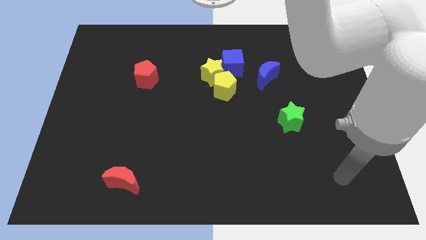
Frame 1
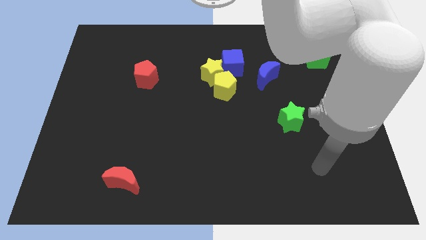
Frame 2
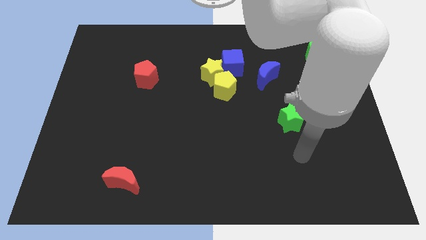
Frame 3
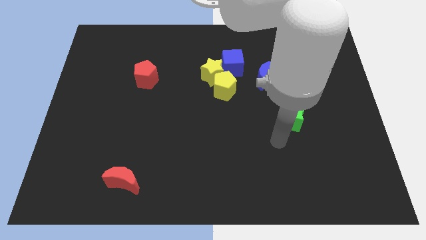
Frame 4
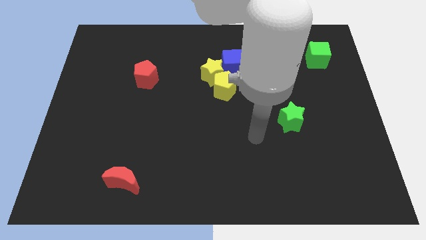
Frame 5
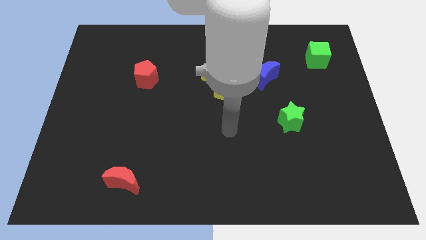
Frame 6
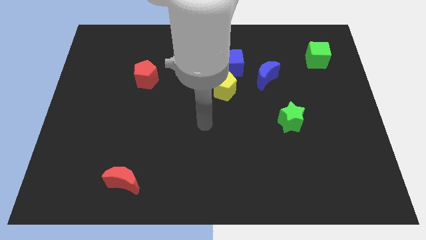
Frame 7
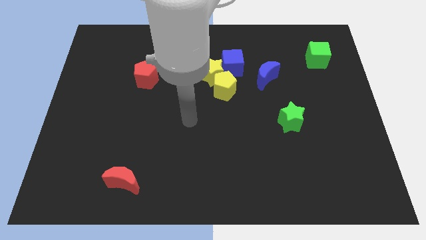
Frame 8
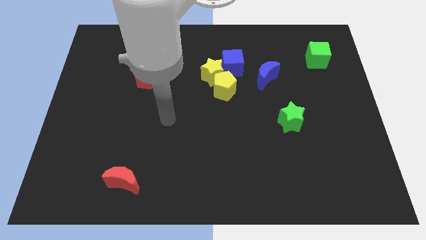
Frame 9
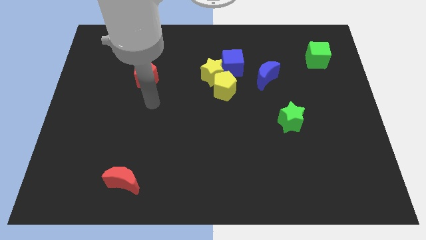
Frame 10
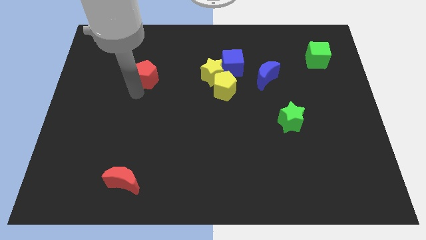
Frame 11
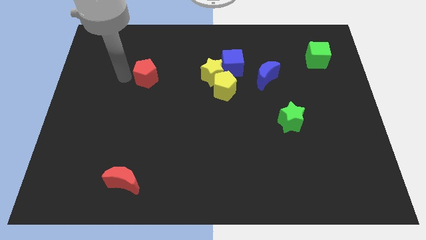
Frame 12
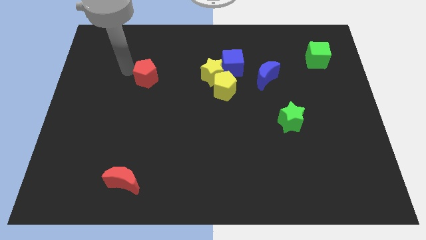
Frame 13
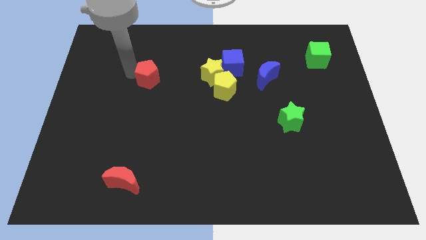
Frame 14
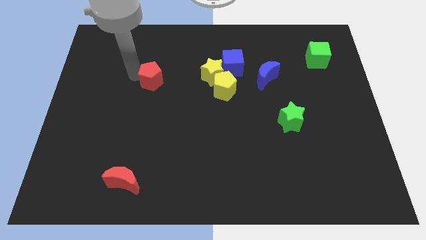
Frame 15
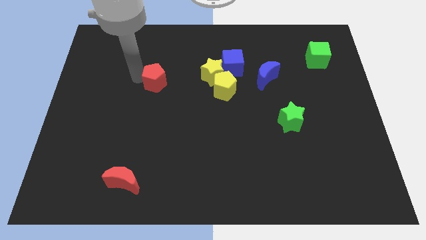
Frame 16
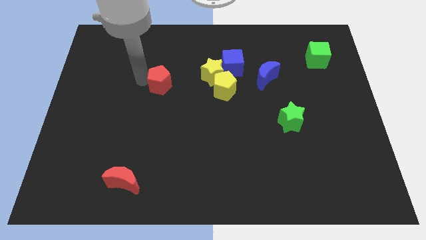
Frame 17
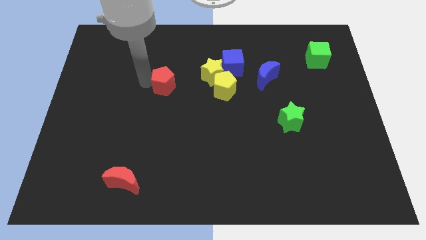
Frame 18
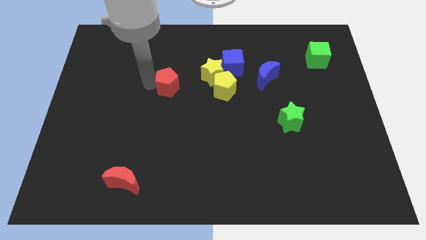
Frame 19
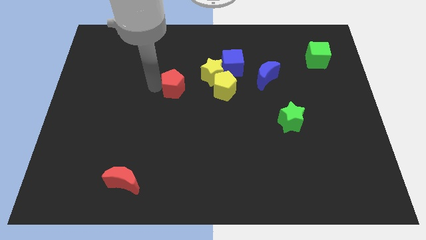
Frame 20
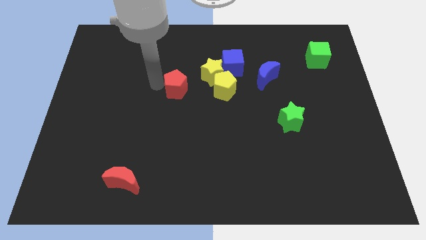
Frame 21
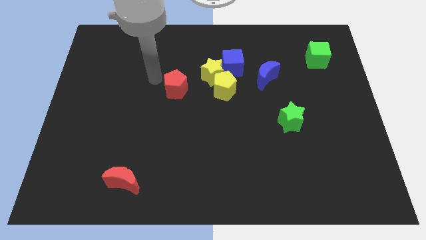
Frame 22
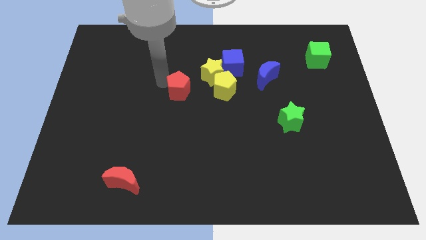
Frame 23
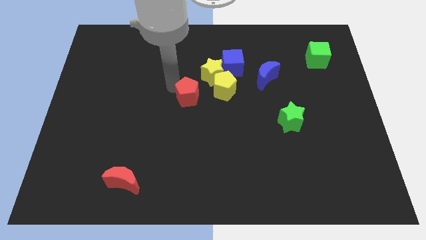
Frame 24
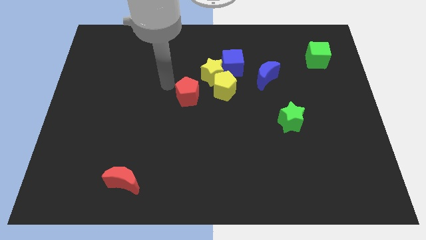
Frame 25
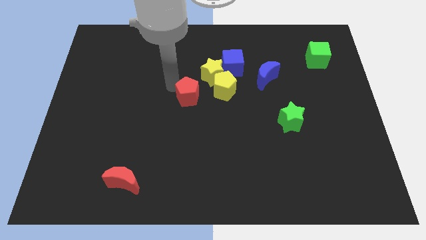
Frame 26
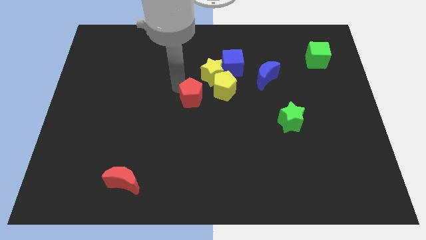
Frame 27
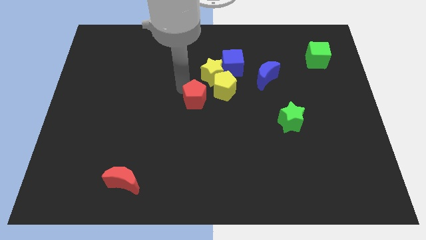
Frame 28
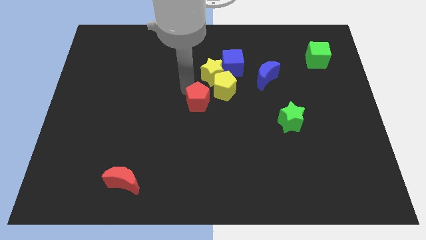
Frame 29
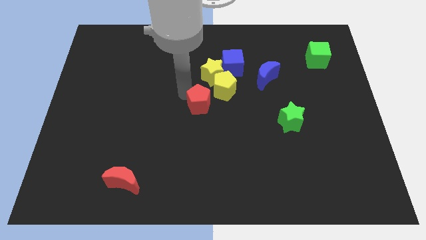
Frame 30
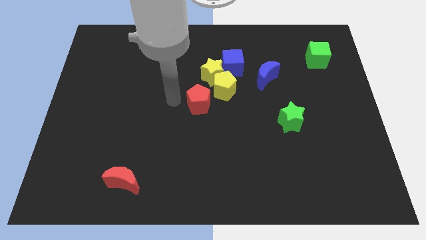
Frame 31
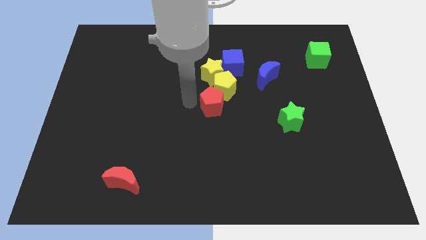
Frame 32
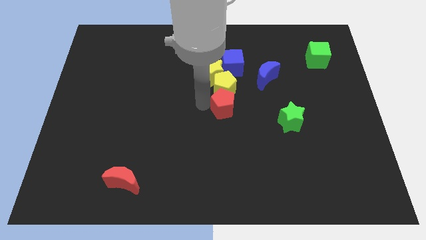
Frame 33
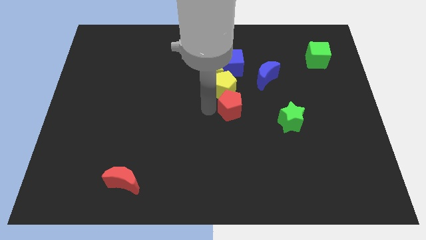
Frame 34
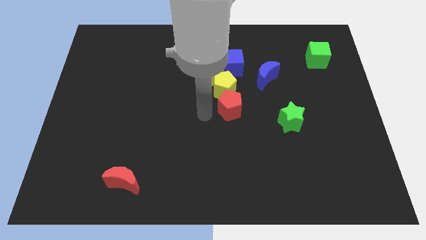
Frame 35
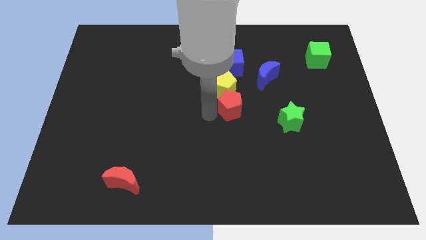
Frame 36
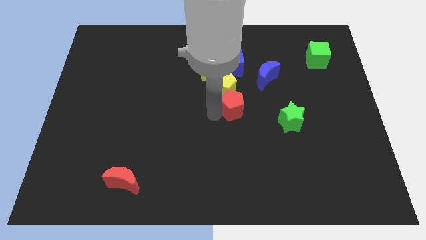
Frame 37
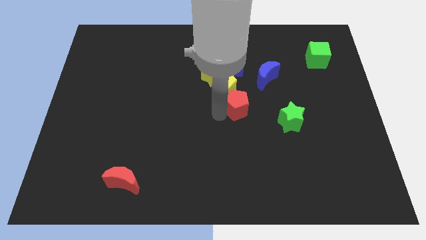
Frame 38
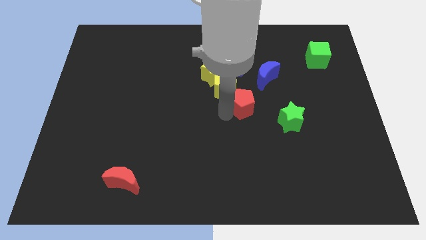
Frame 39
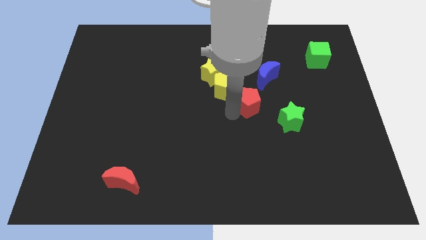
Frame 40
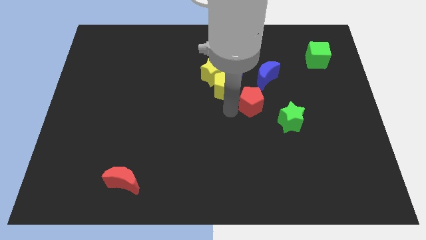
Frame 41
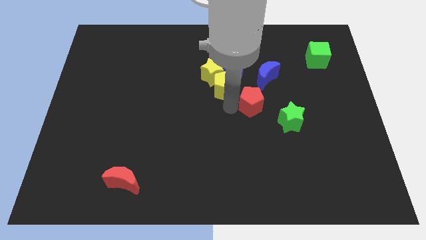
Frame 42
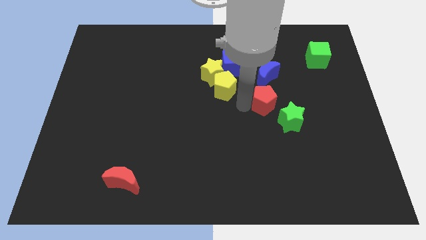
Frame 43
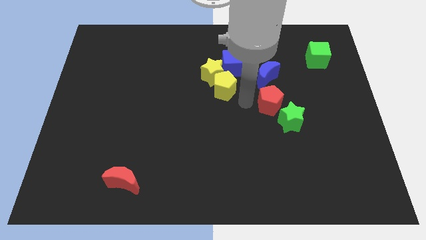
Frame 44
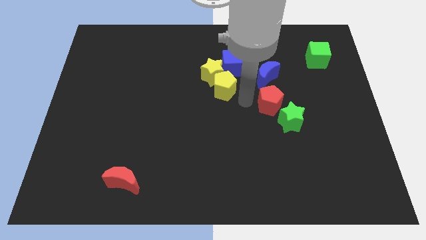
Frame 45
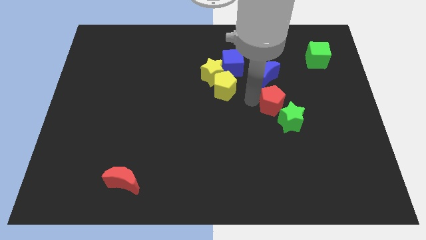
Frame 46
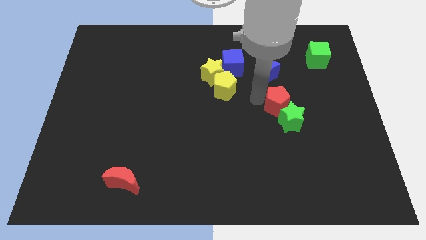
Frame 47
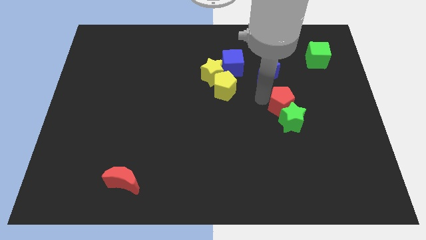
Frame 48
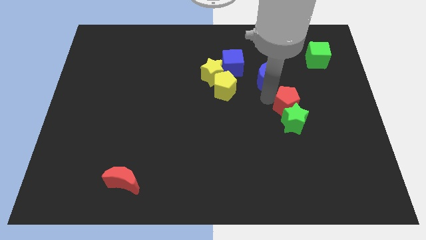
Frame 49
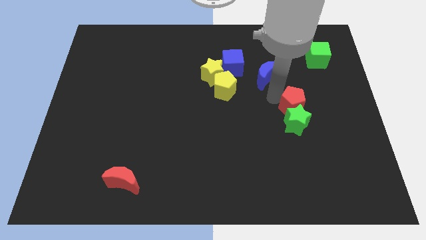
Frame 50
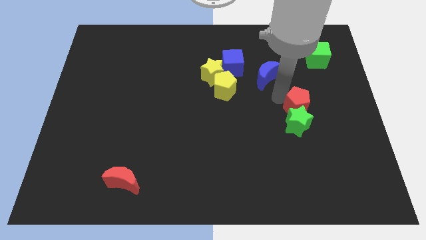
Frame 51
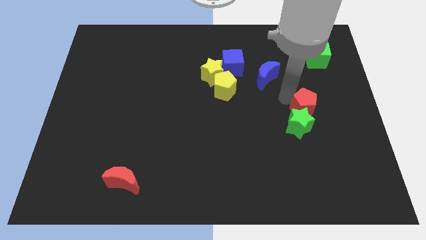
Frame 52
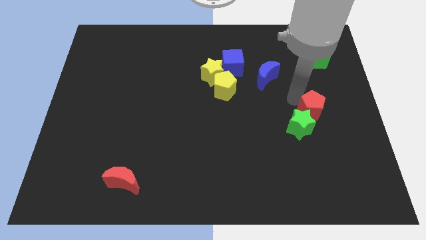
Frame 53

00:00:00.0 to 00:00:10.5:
move the red pentagon just right of the green star

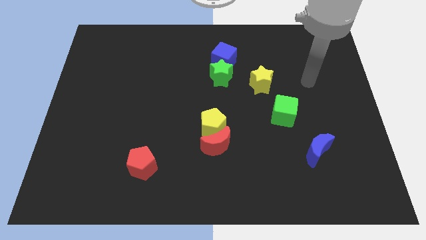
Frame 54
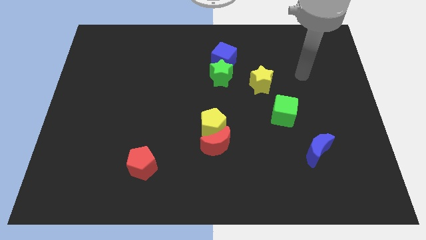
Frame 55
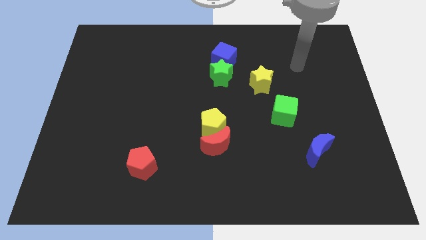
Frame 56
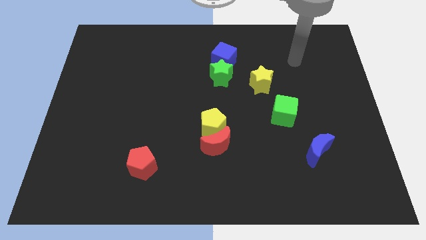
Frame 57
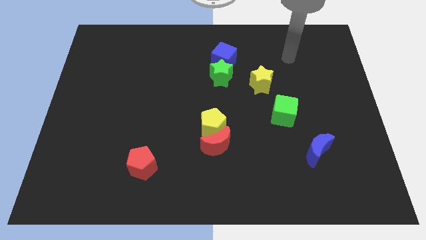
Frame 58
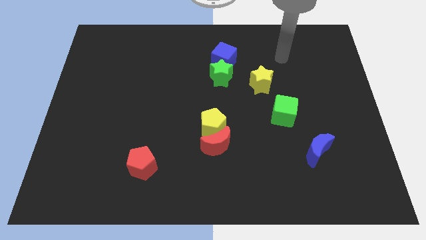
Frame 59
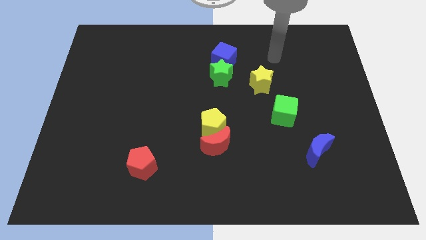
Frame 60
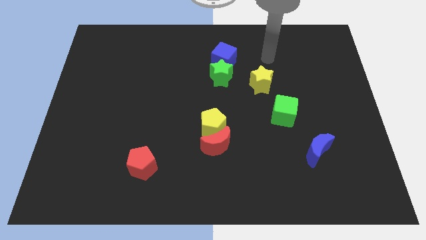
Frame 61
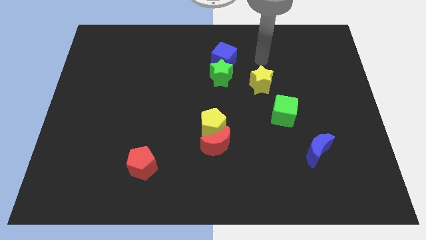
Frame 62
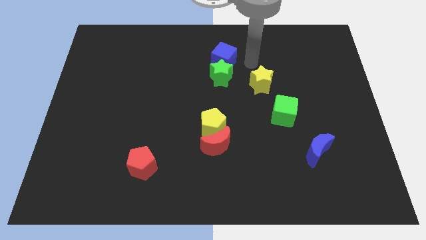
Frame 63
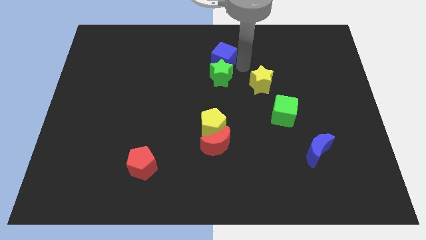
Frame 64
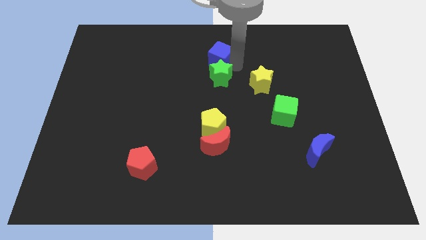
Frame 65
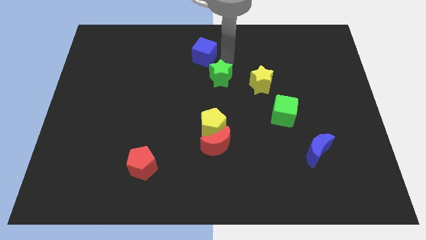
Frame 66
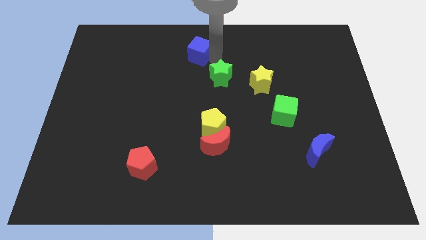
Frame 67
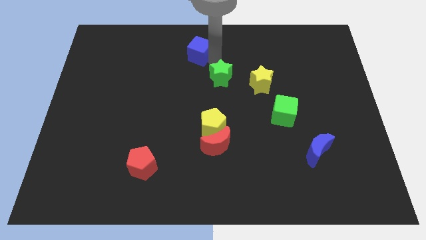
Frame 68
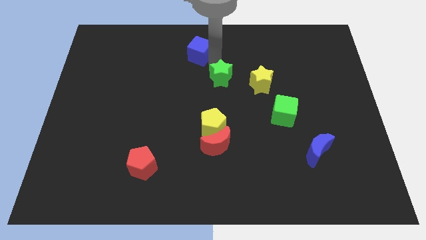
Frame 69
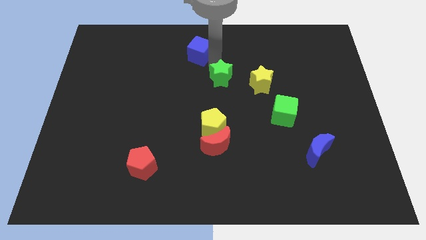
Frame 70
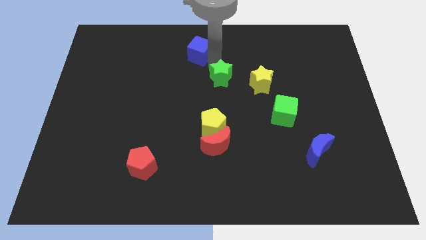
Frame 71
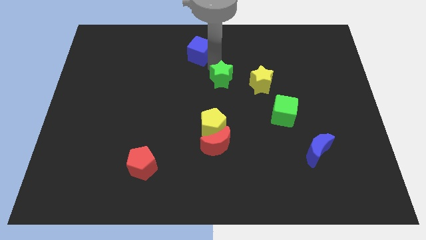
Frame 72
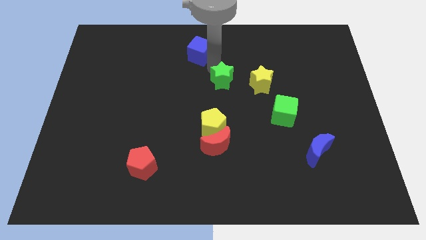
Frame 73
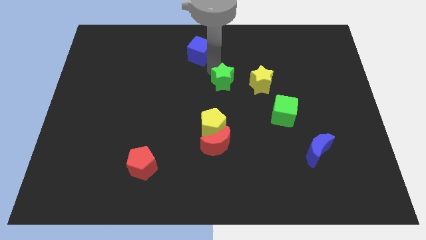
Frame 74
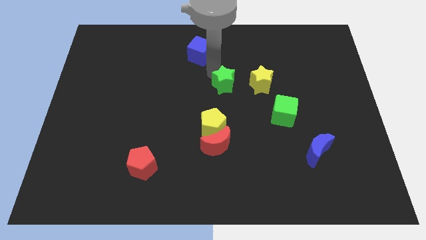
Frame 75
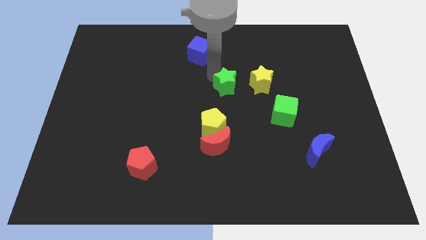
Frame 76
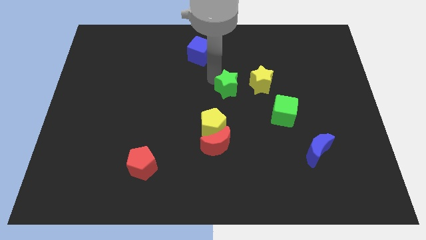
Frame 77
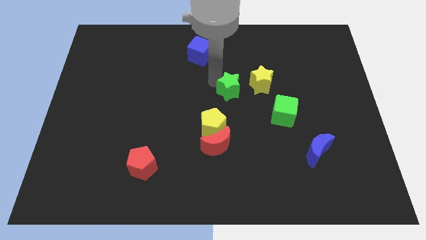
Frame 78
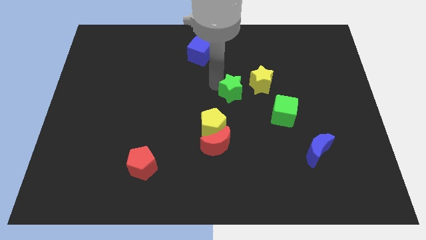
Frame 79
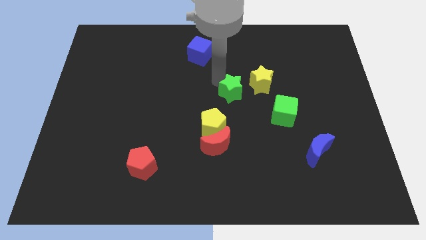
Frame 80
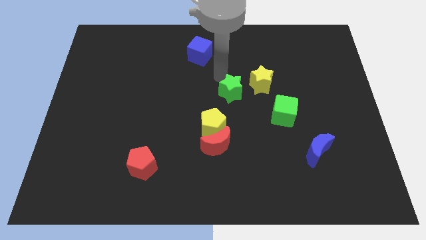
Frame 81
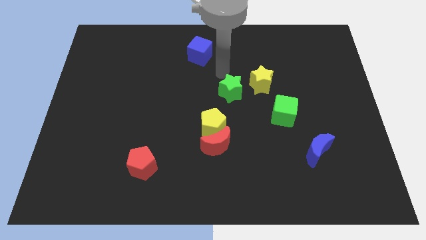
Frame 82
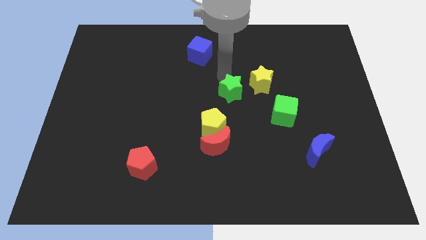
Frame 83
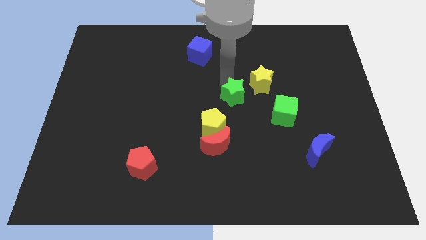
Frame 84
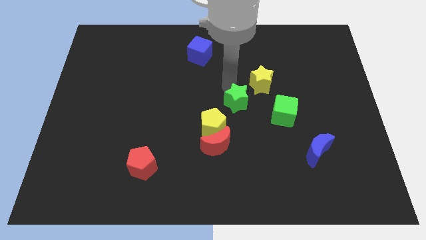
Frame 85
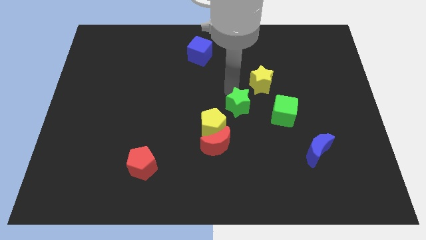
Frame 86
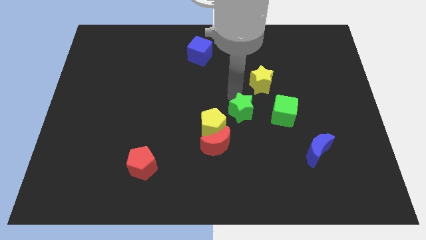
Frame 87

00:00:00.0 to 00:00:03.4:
put the green star to the top right of the red moon
